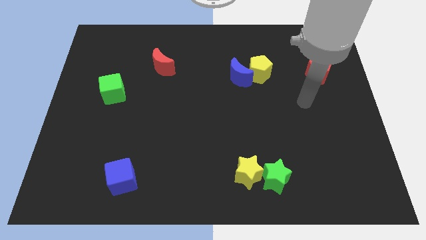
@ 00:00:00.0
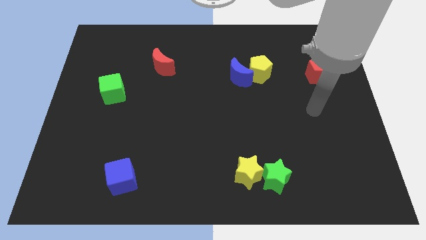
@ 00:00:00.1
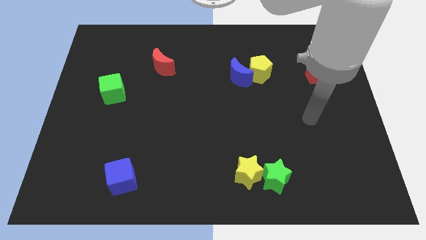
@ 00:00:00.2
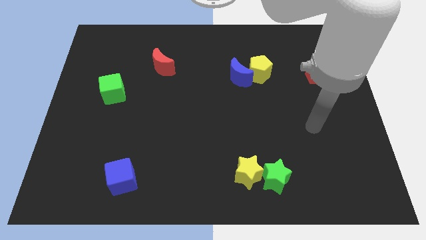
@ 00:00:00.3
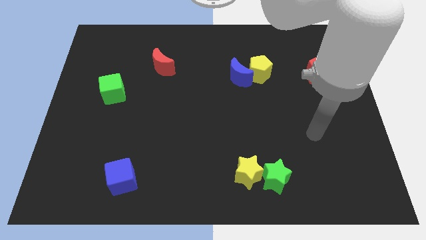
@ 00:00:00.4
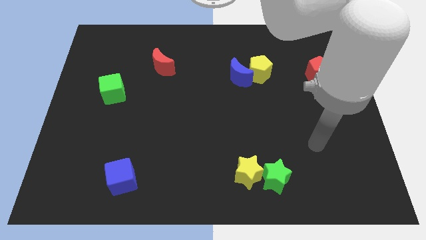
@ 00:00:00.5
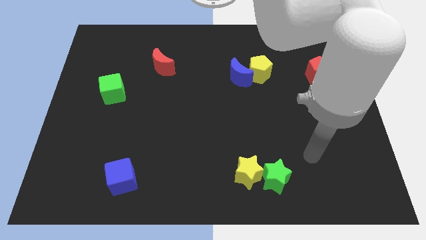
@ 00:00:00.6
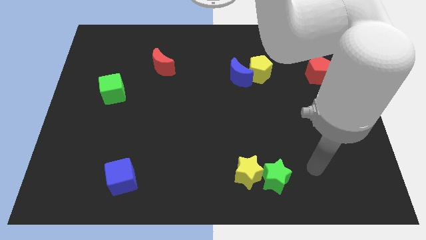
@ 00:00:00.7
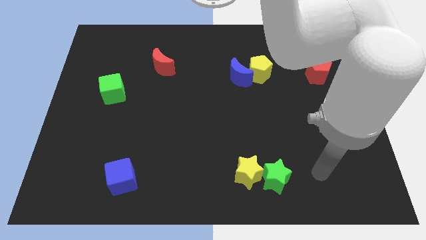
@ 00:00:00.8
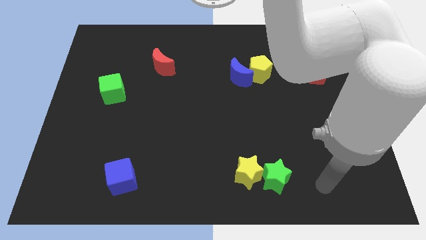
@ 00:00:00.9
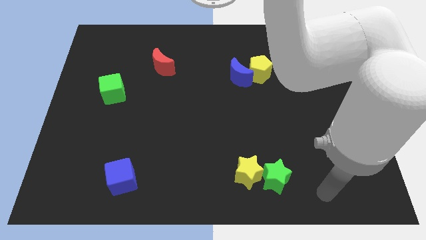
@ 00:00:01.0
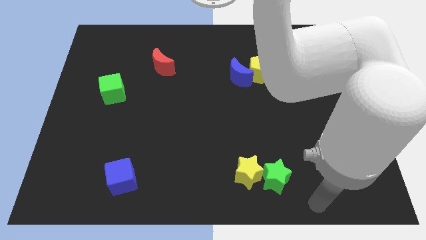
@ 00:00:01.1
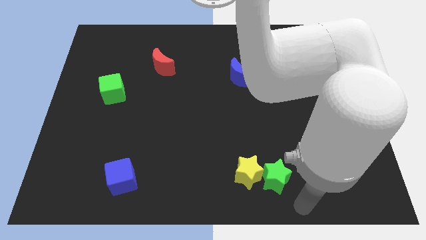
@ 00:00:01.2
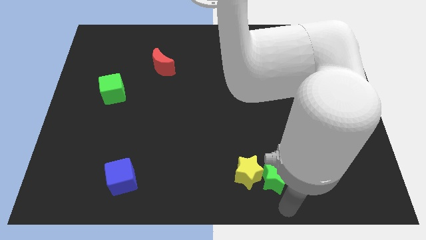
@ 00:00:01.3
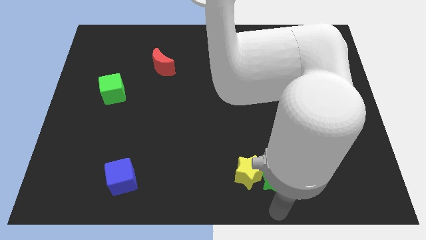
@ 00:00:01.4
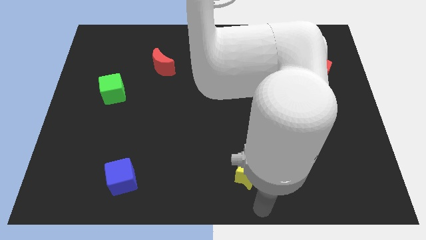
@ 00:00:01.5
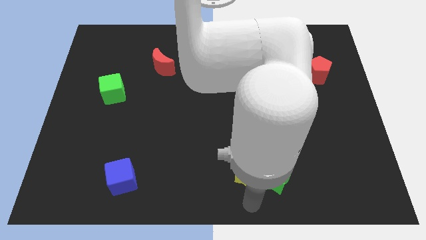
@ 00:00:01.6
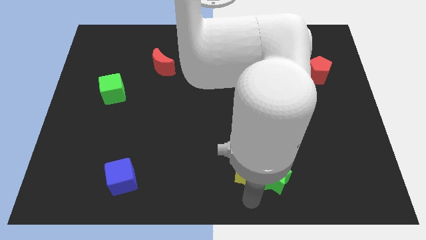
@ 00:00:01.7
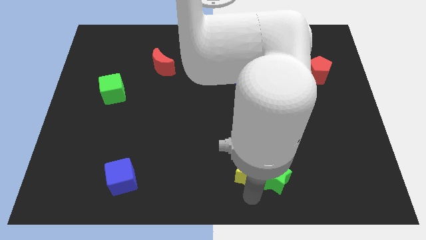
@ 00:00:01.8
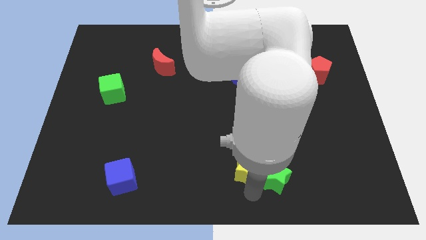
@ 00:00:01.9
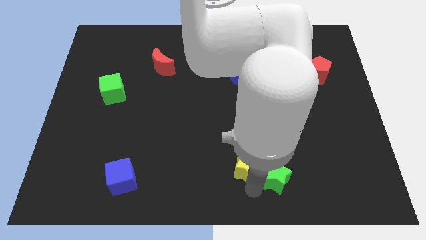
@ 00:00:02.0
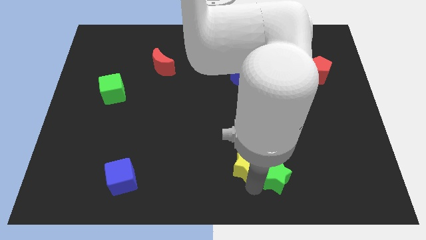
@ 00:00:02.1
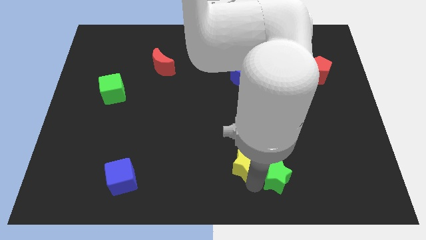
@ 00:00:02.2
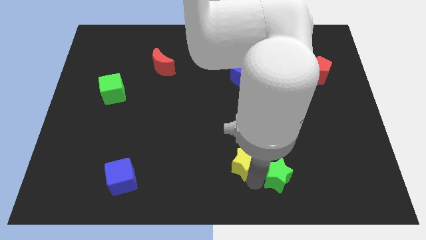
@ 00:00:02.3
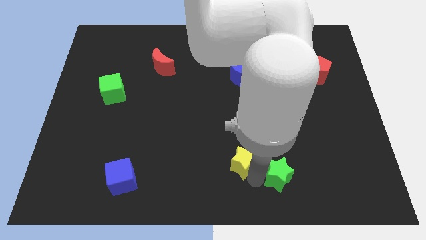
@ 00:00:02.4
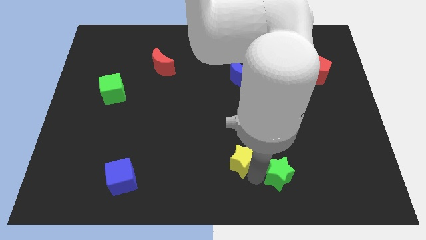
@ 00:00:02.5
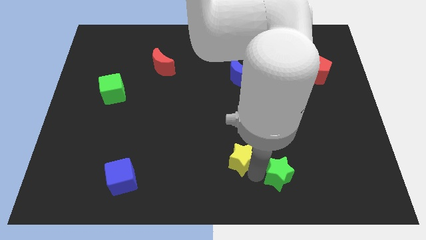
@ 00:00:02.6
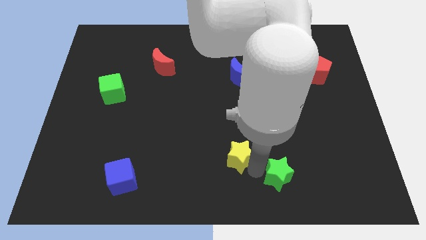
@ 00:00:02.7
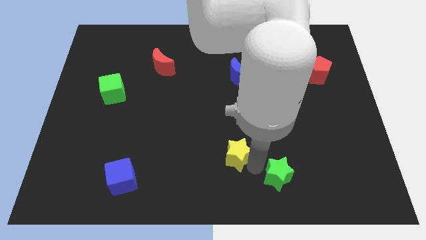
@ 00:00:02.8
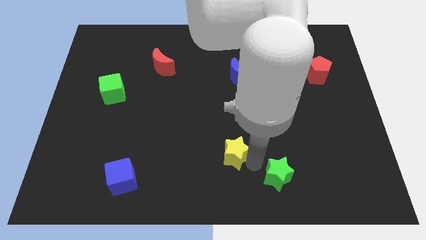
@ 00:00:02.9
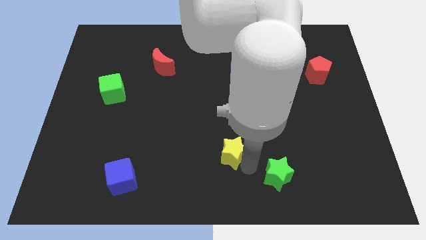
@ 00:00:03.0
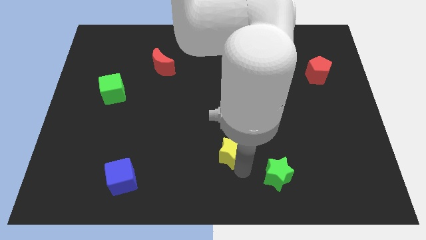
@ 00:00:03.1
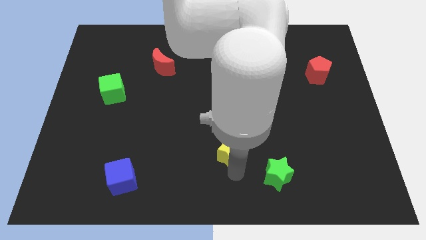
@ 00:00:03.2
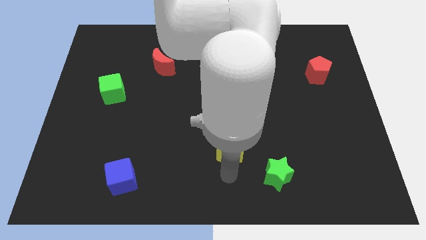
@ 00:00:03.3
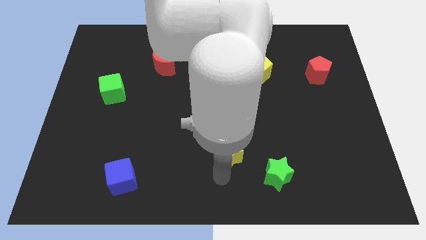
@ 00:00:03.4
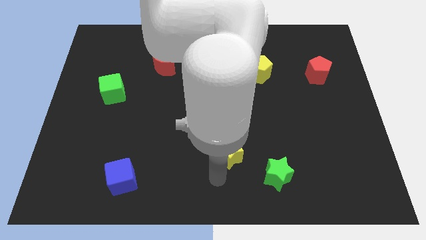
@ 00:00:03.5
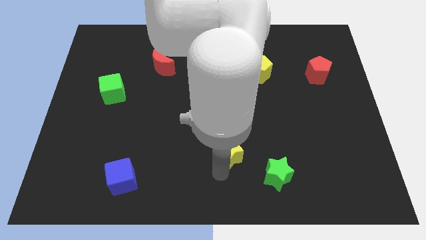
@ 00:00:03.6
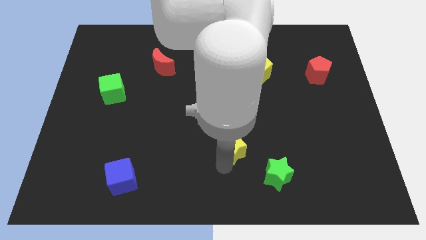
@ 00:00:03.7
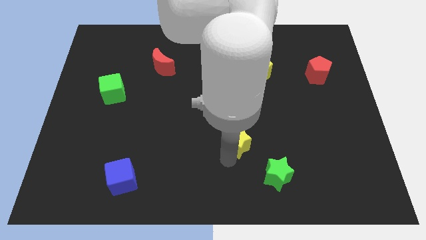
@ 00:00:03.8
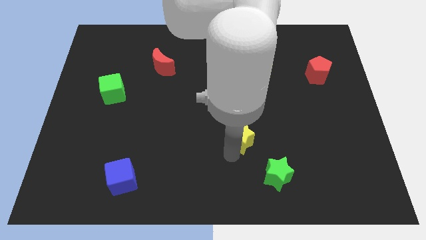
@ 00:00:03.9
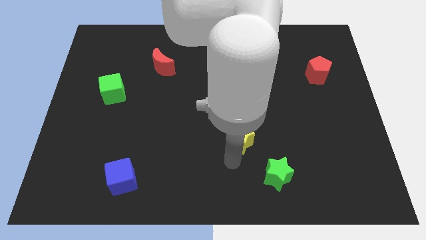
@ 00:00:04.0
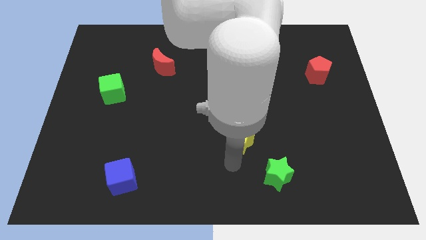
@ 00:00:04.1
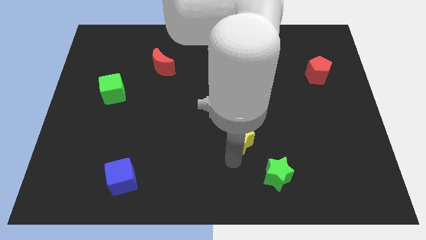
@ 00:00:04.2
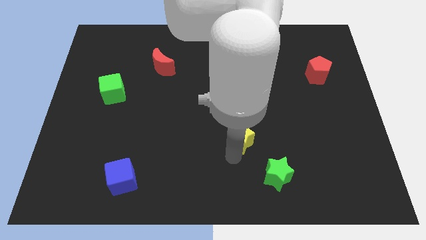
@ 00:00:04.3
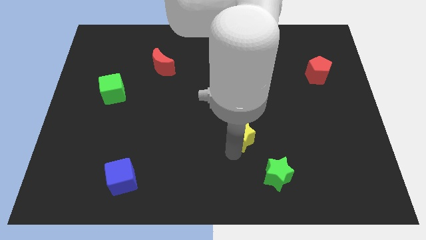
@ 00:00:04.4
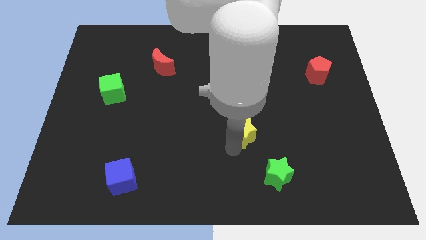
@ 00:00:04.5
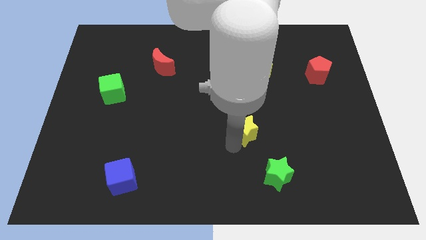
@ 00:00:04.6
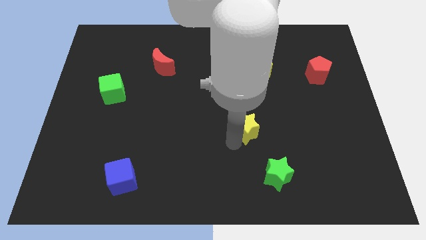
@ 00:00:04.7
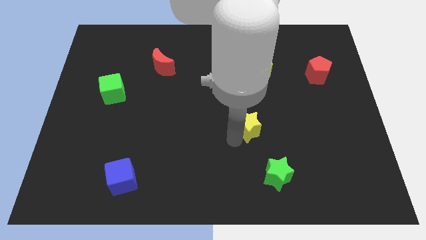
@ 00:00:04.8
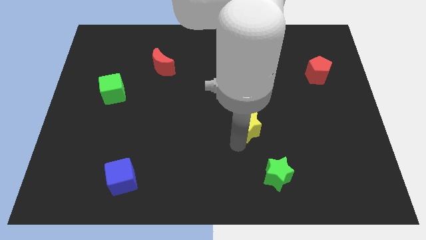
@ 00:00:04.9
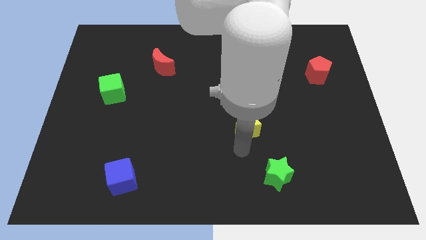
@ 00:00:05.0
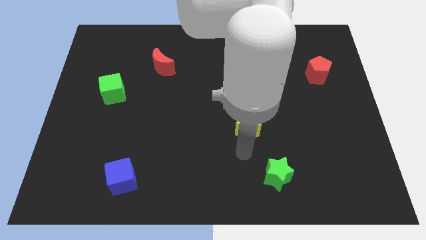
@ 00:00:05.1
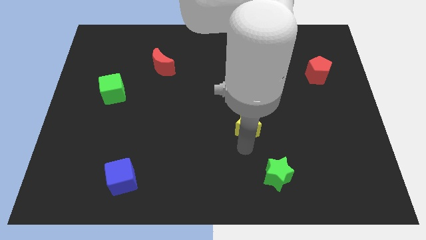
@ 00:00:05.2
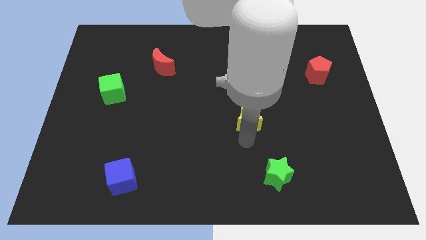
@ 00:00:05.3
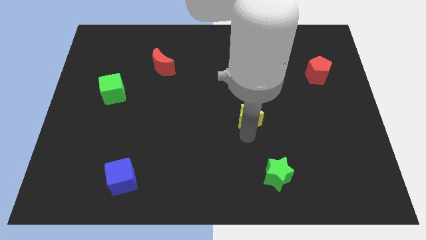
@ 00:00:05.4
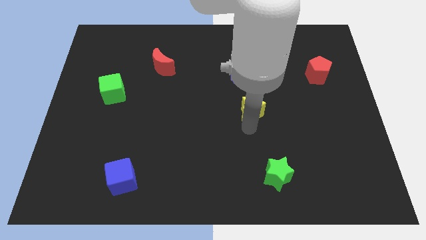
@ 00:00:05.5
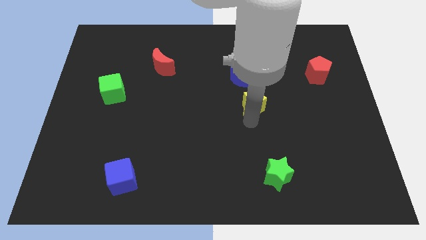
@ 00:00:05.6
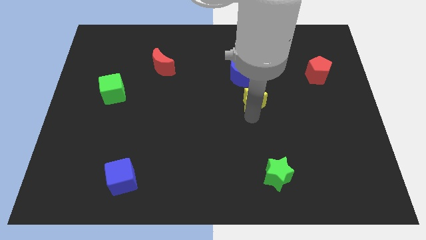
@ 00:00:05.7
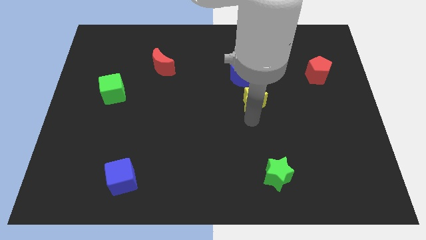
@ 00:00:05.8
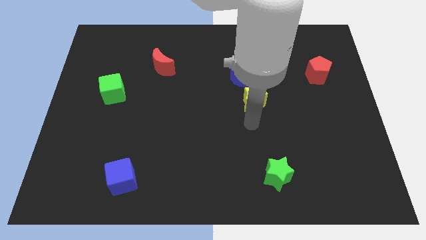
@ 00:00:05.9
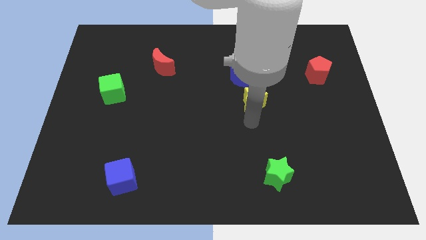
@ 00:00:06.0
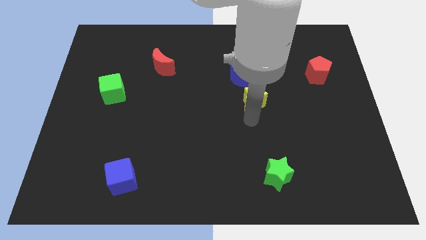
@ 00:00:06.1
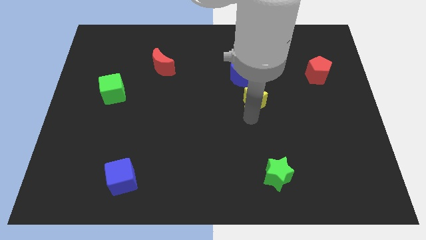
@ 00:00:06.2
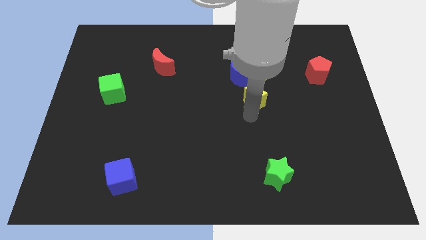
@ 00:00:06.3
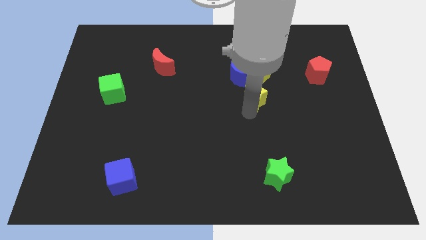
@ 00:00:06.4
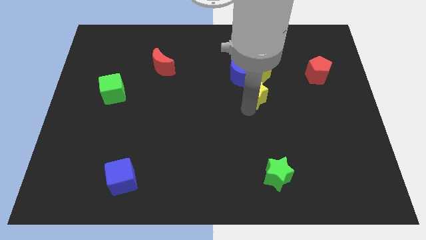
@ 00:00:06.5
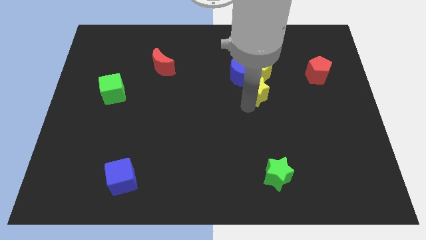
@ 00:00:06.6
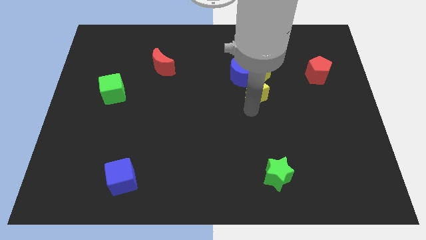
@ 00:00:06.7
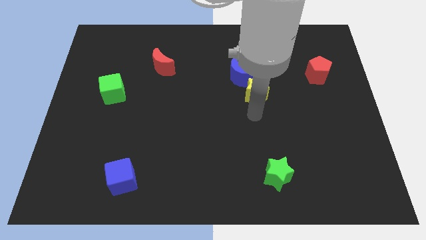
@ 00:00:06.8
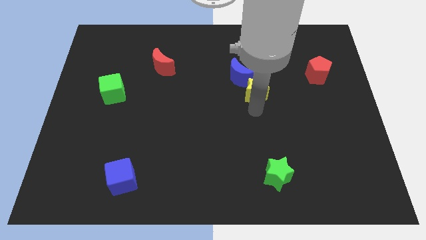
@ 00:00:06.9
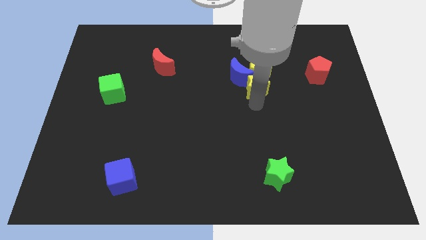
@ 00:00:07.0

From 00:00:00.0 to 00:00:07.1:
move the yellow star next to the yellow pentagon
